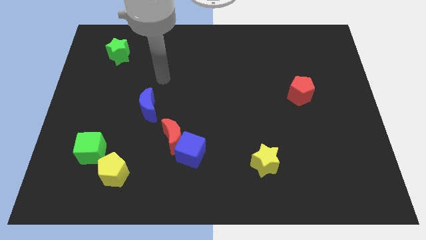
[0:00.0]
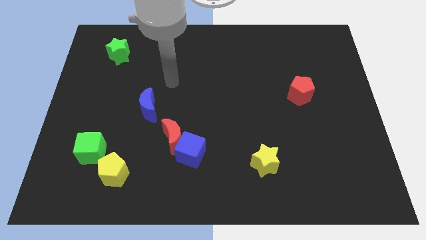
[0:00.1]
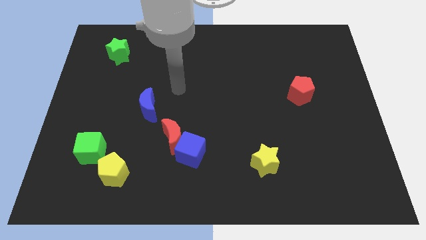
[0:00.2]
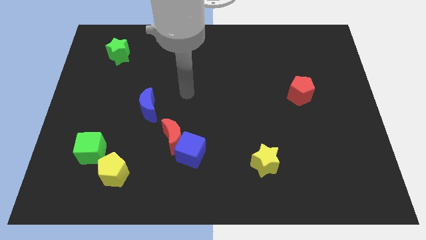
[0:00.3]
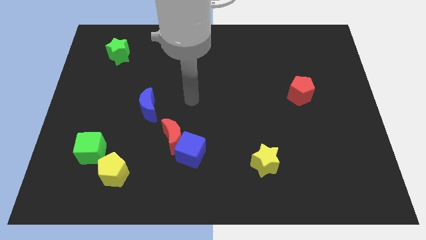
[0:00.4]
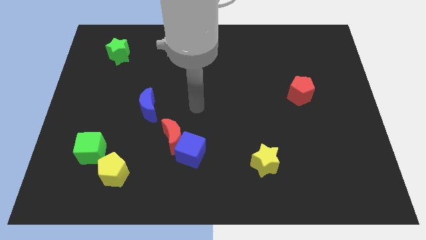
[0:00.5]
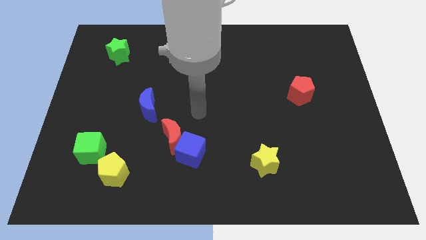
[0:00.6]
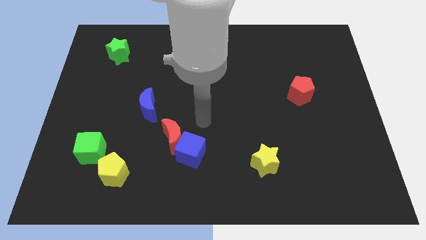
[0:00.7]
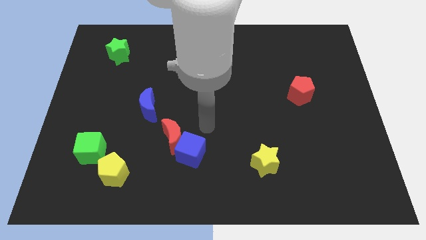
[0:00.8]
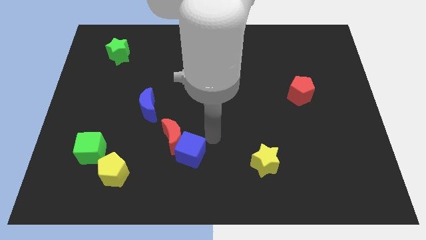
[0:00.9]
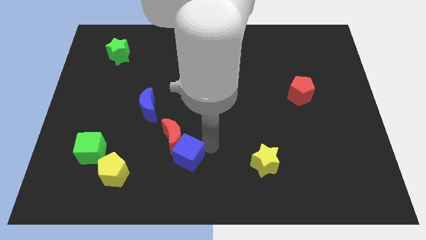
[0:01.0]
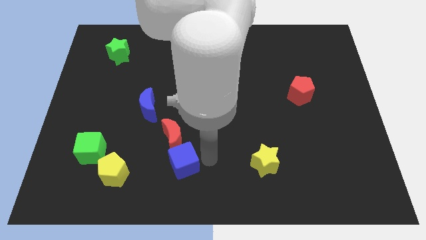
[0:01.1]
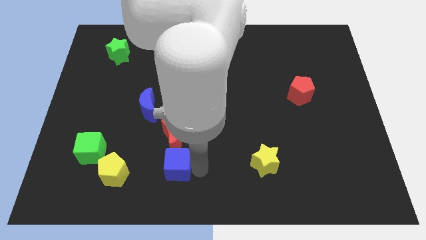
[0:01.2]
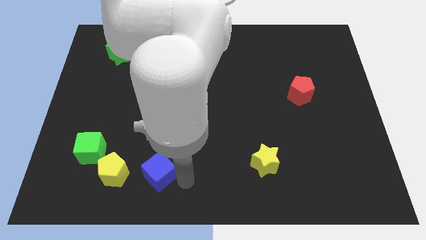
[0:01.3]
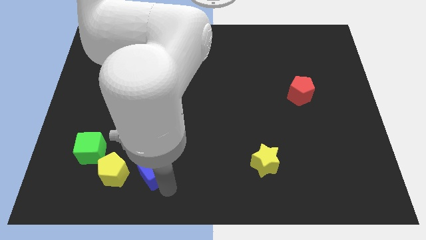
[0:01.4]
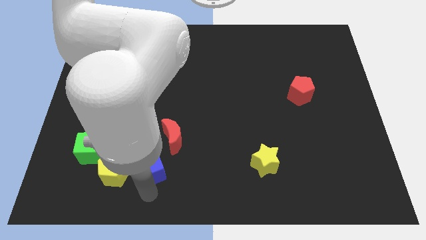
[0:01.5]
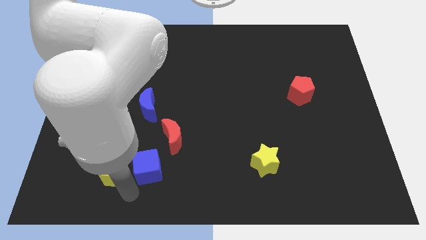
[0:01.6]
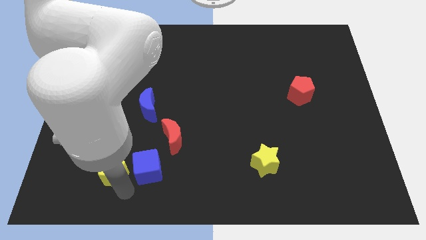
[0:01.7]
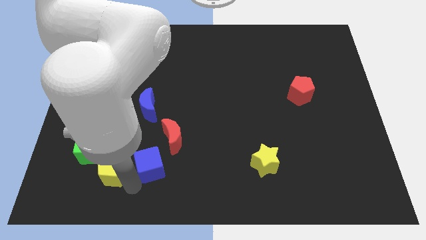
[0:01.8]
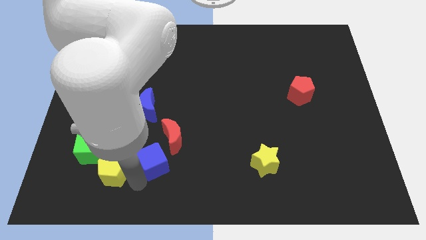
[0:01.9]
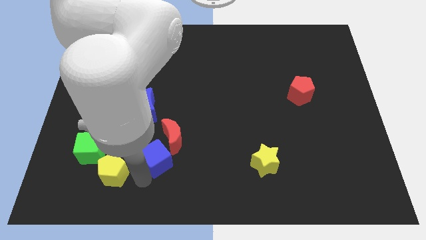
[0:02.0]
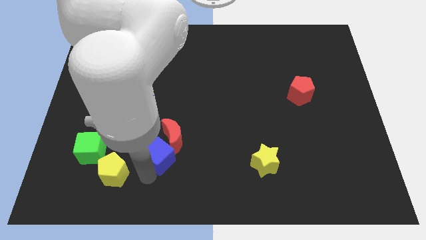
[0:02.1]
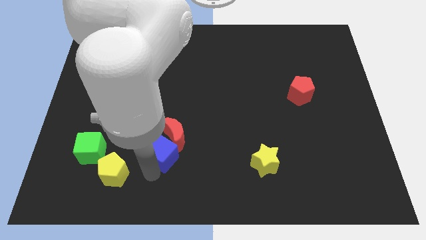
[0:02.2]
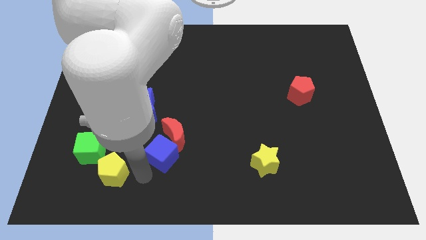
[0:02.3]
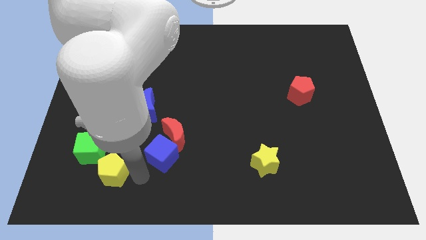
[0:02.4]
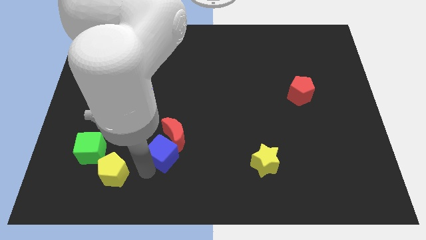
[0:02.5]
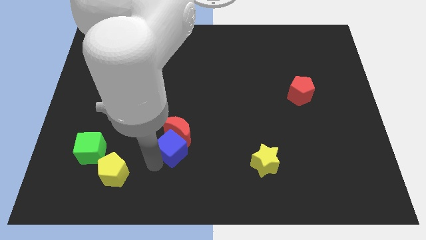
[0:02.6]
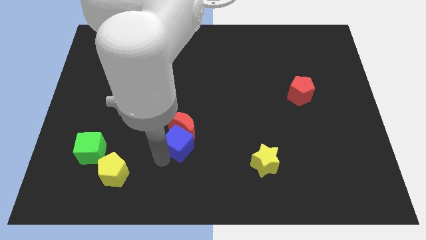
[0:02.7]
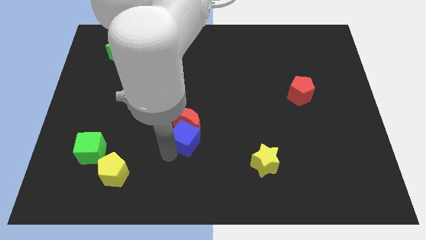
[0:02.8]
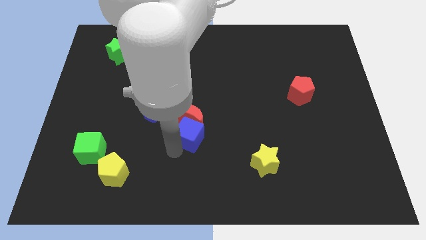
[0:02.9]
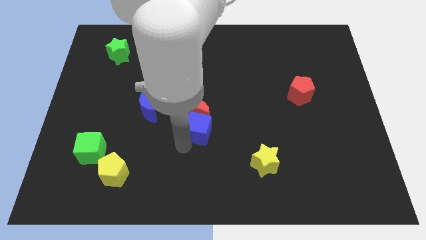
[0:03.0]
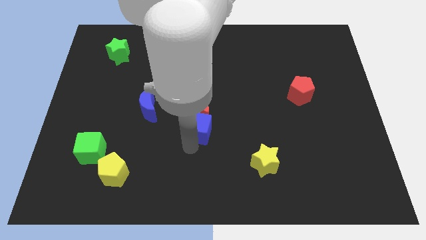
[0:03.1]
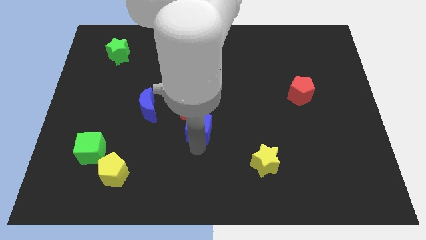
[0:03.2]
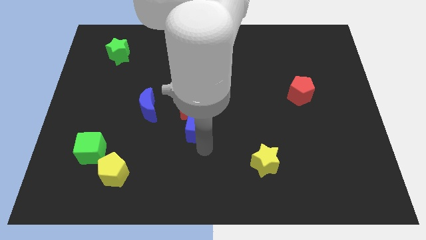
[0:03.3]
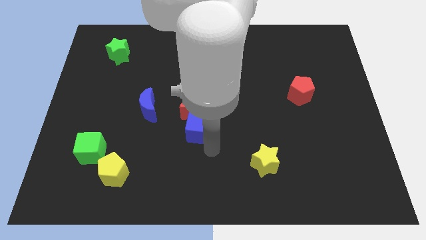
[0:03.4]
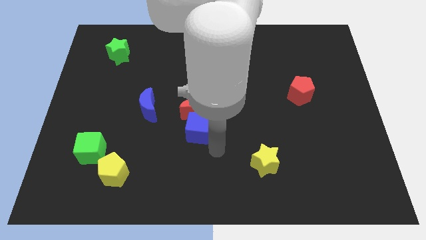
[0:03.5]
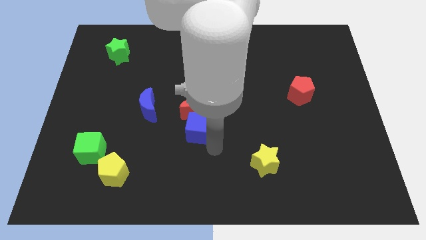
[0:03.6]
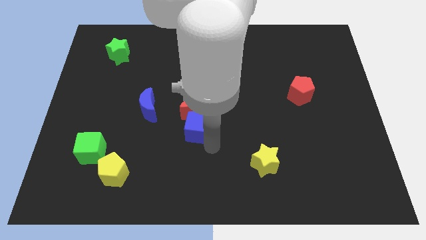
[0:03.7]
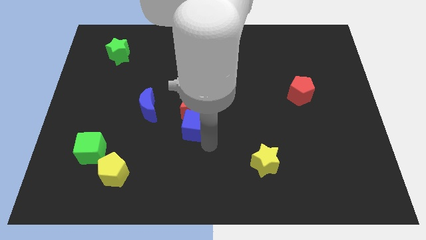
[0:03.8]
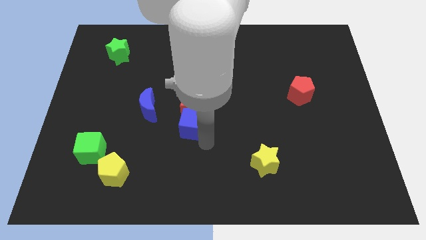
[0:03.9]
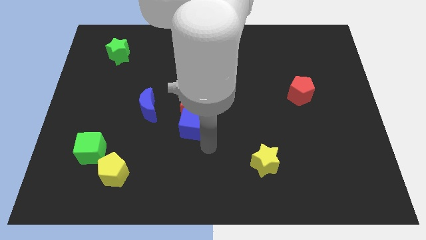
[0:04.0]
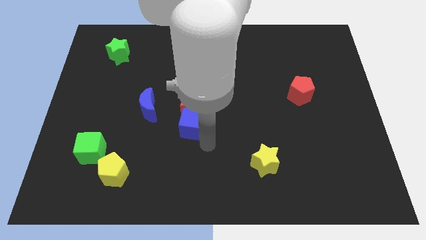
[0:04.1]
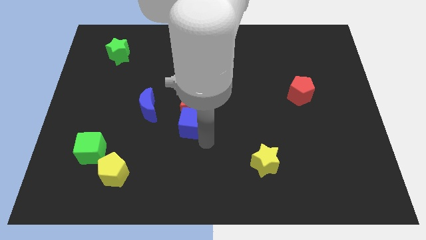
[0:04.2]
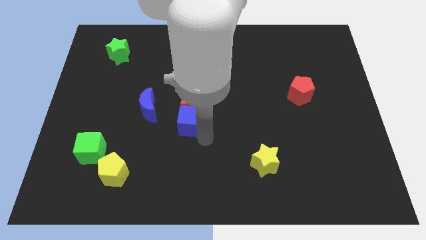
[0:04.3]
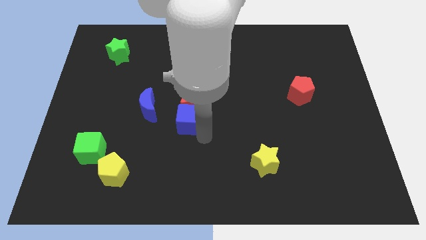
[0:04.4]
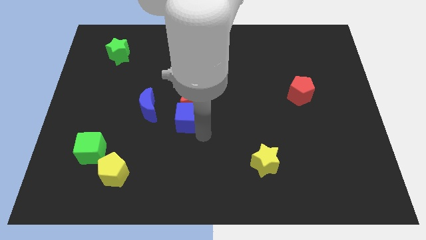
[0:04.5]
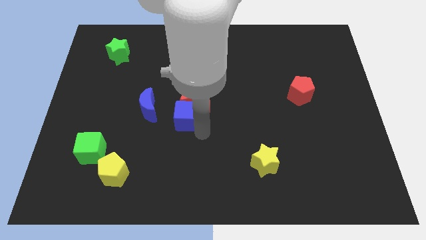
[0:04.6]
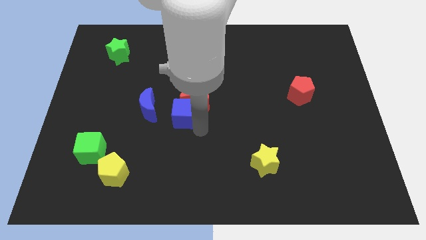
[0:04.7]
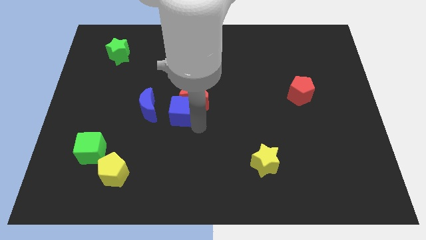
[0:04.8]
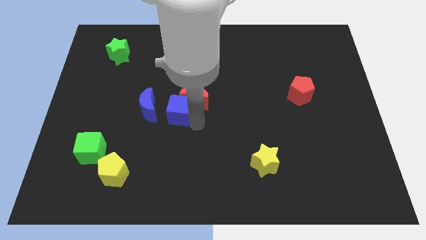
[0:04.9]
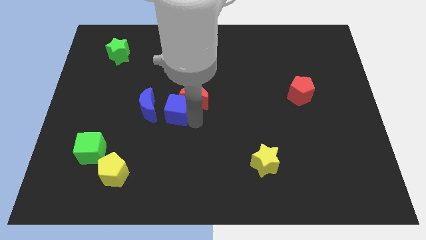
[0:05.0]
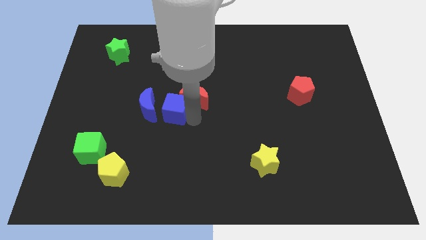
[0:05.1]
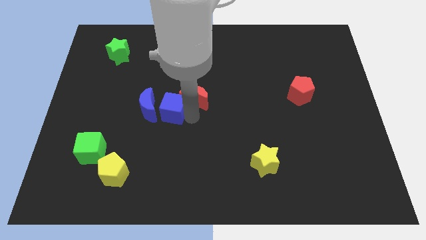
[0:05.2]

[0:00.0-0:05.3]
put the blue cube to the top right of the blue moon
